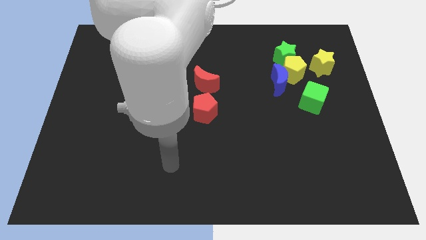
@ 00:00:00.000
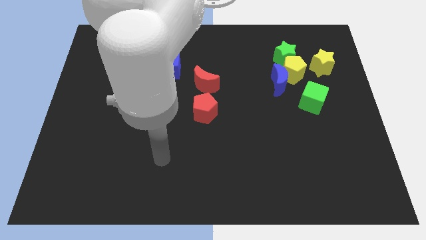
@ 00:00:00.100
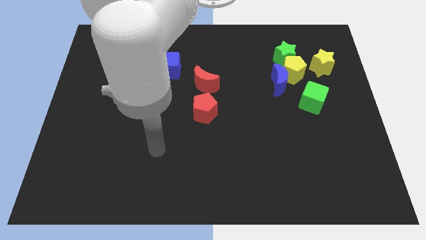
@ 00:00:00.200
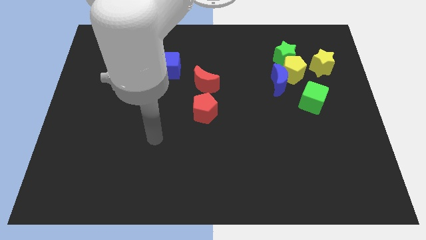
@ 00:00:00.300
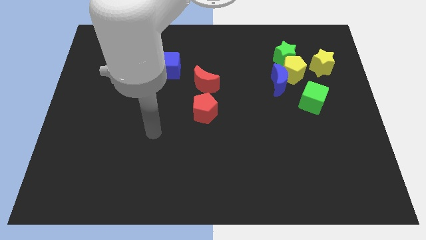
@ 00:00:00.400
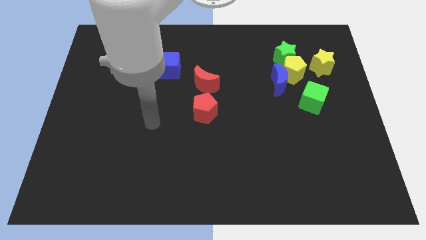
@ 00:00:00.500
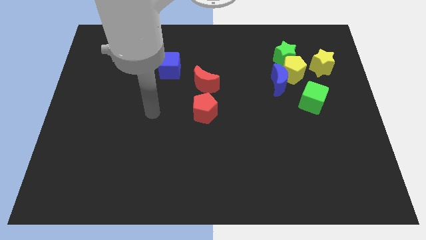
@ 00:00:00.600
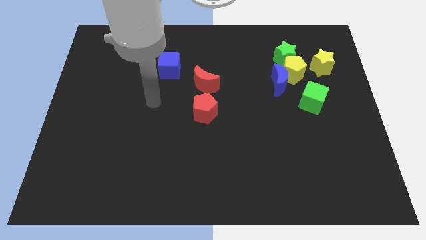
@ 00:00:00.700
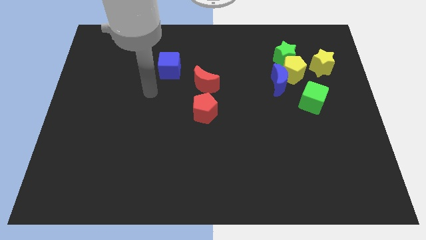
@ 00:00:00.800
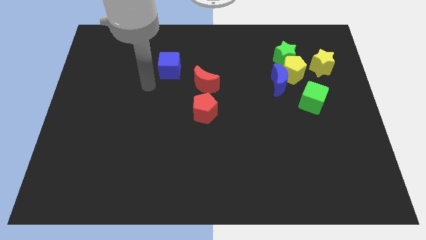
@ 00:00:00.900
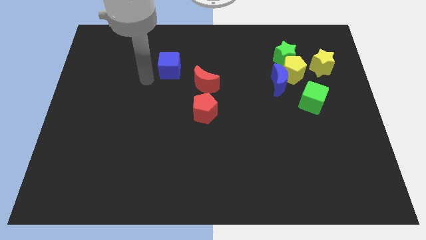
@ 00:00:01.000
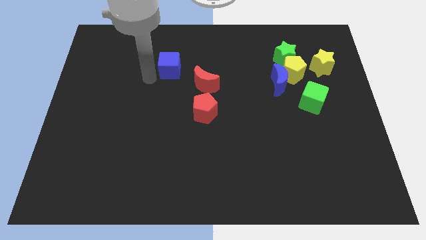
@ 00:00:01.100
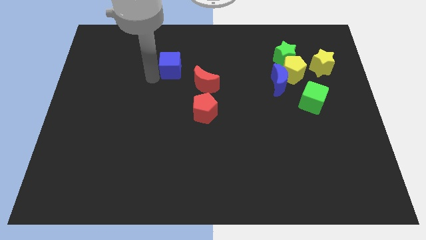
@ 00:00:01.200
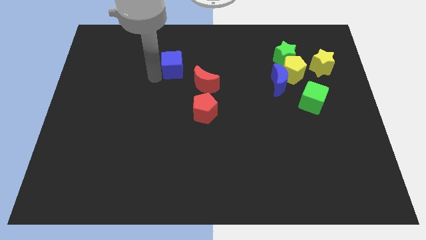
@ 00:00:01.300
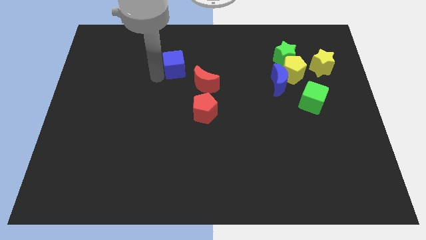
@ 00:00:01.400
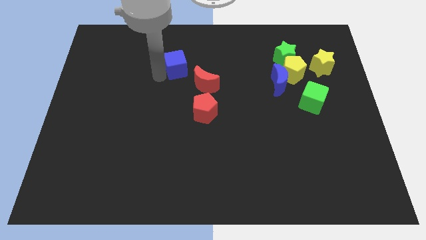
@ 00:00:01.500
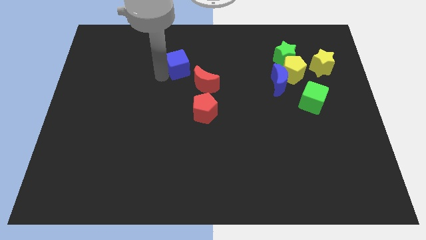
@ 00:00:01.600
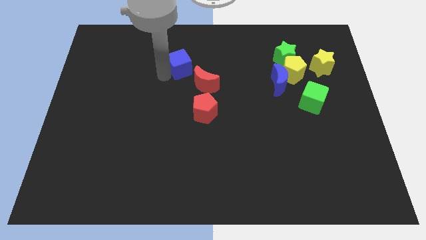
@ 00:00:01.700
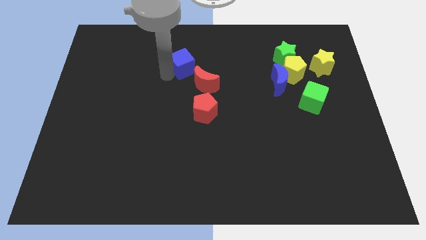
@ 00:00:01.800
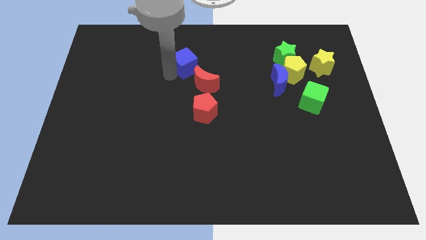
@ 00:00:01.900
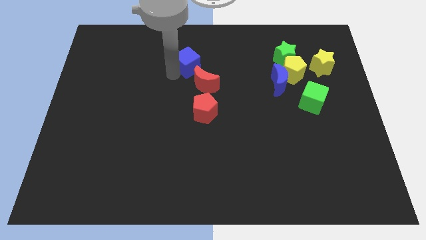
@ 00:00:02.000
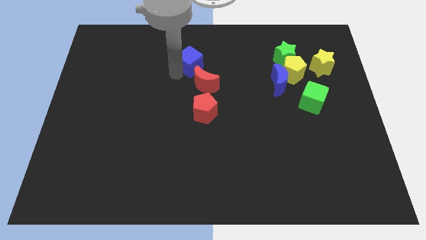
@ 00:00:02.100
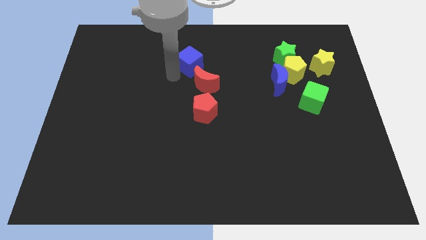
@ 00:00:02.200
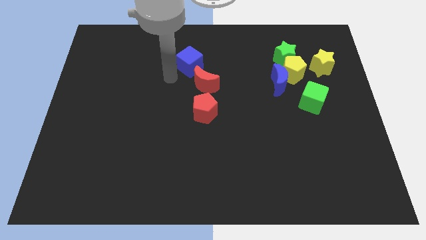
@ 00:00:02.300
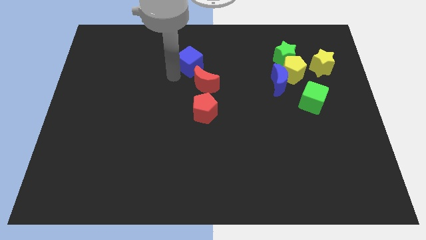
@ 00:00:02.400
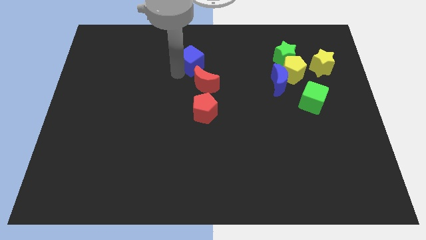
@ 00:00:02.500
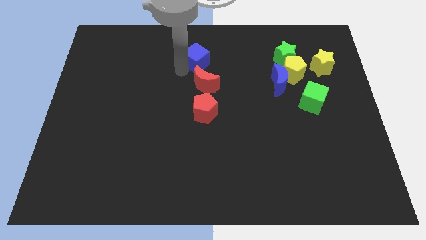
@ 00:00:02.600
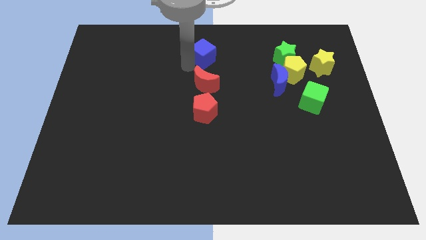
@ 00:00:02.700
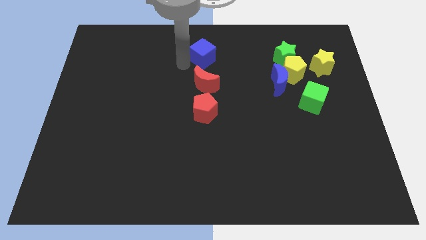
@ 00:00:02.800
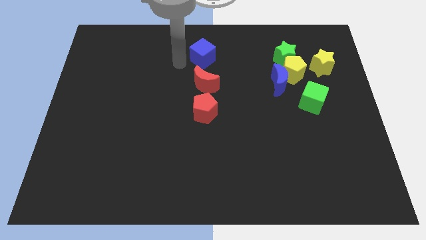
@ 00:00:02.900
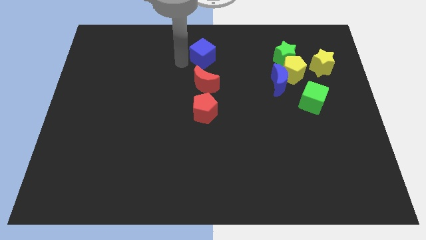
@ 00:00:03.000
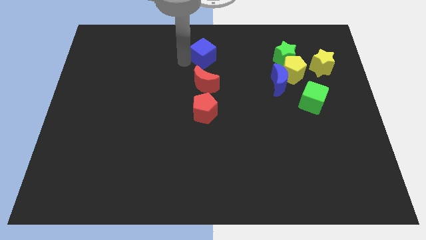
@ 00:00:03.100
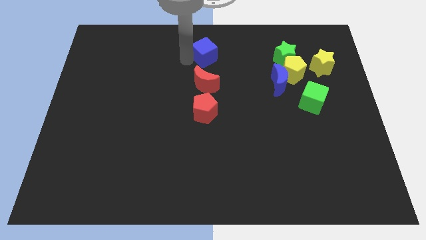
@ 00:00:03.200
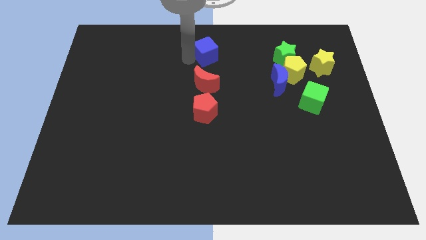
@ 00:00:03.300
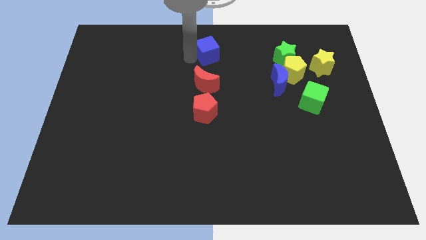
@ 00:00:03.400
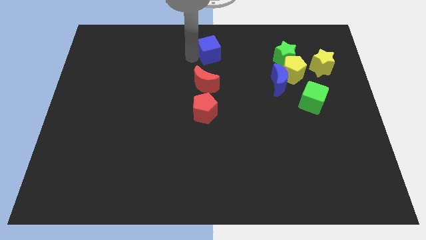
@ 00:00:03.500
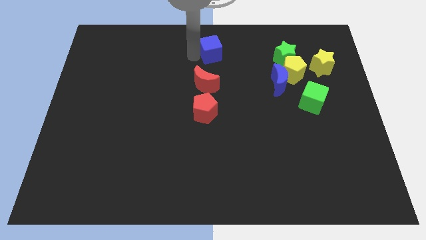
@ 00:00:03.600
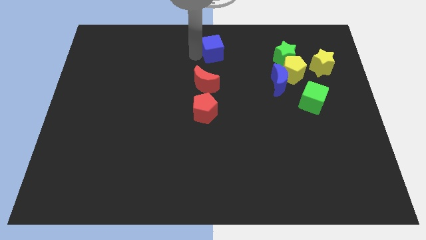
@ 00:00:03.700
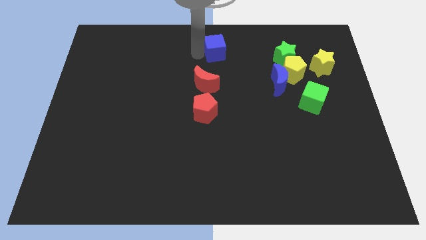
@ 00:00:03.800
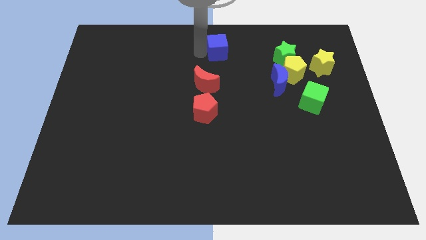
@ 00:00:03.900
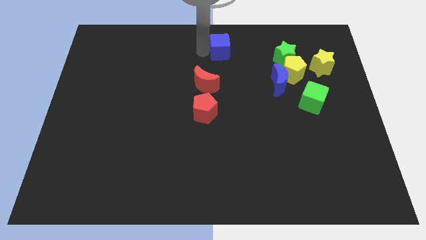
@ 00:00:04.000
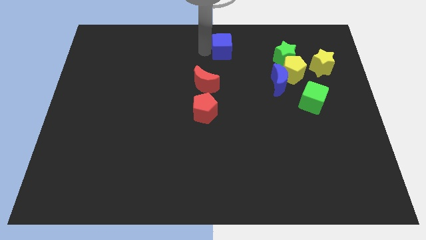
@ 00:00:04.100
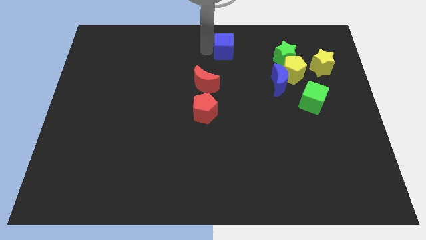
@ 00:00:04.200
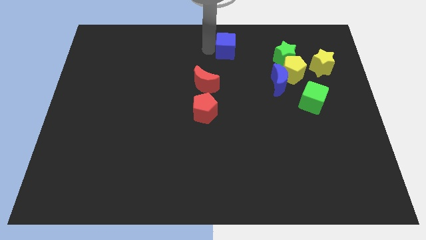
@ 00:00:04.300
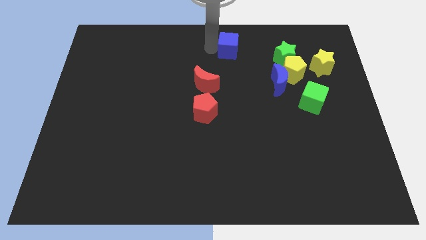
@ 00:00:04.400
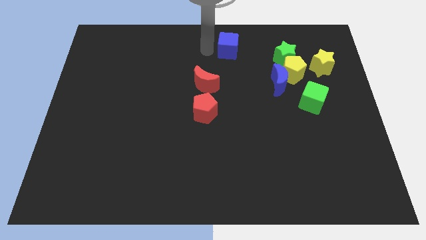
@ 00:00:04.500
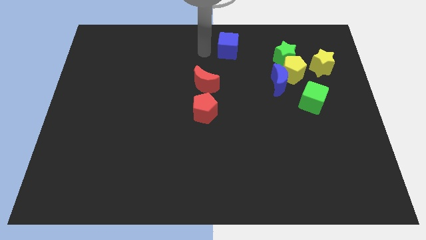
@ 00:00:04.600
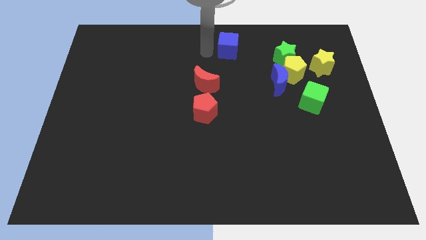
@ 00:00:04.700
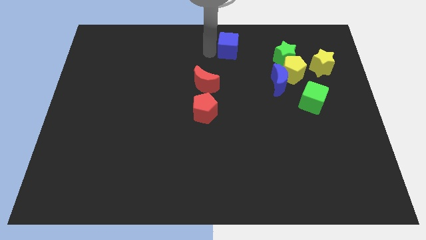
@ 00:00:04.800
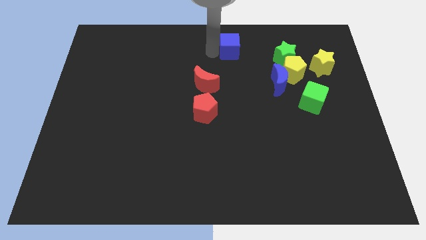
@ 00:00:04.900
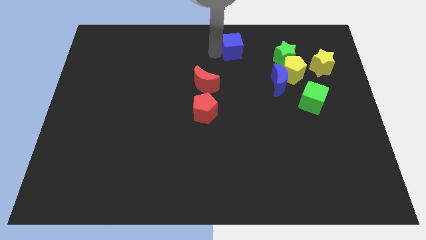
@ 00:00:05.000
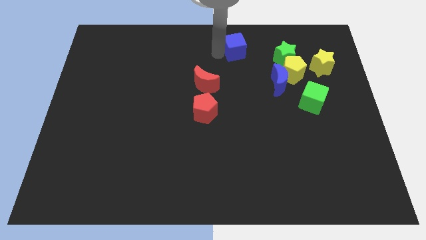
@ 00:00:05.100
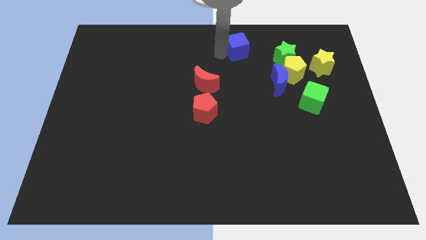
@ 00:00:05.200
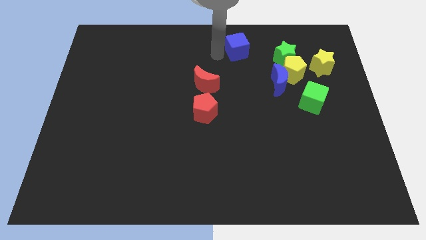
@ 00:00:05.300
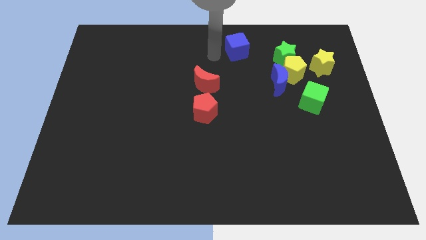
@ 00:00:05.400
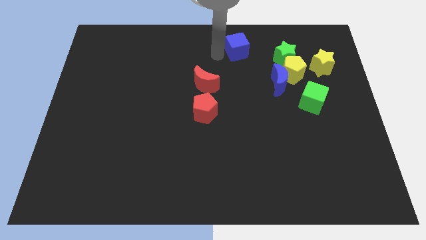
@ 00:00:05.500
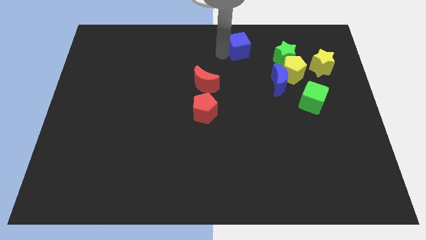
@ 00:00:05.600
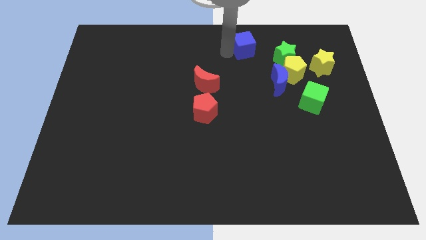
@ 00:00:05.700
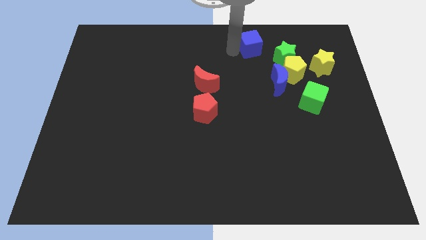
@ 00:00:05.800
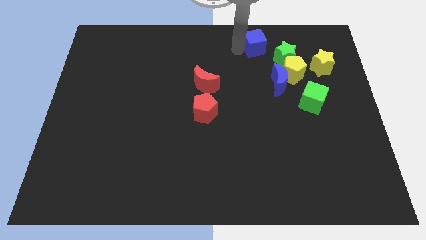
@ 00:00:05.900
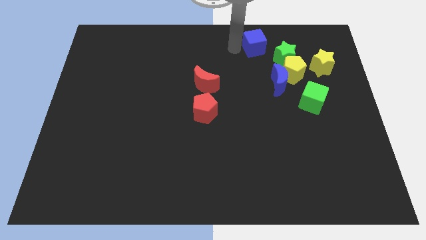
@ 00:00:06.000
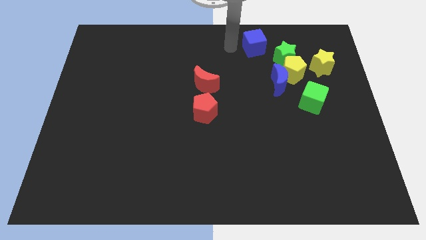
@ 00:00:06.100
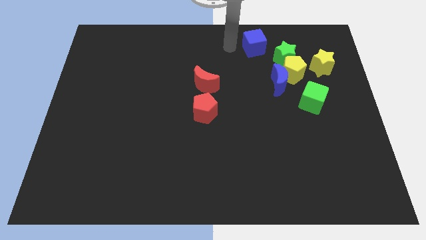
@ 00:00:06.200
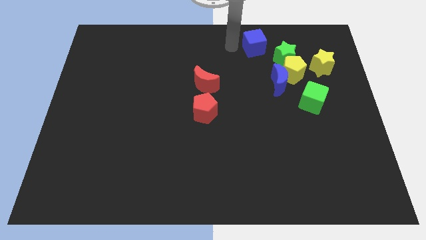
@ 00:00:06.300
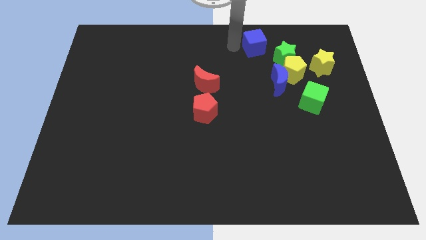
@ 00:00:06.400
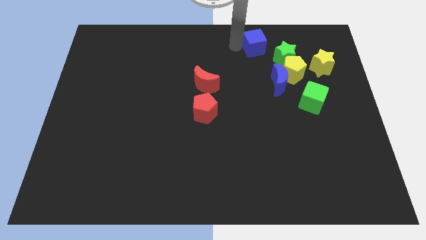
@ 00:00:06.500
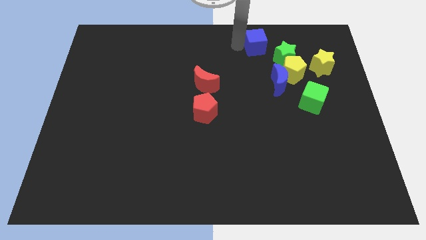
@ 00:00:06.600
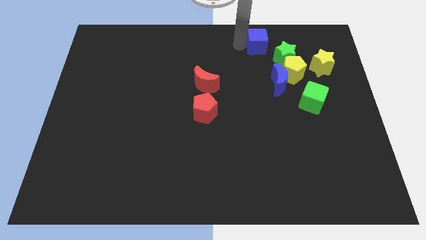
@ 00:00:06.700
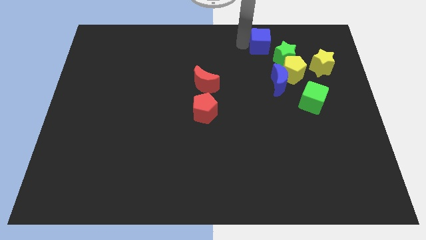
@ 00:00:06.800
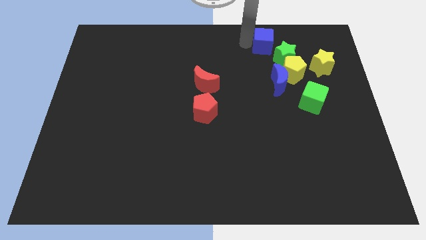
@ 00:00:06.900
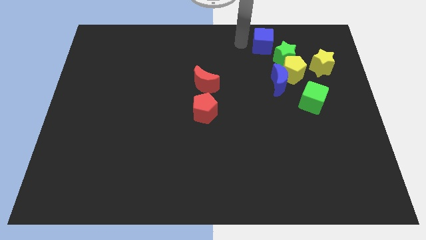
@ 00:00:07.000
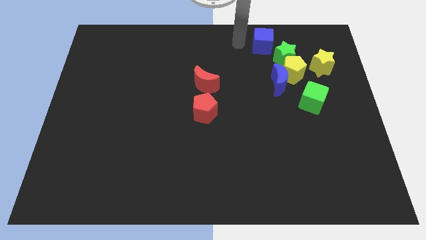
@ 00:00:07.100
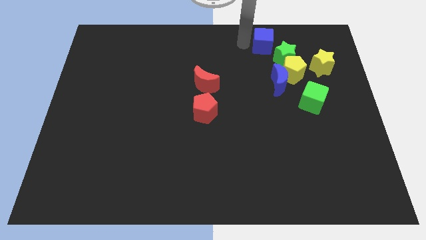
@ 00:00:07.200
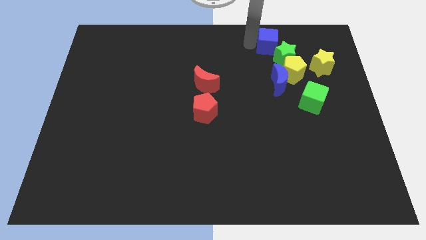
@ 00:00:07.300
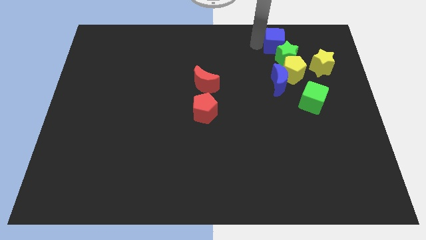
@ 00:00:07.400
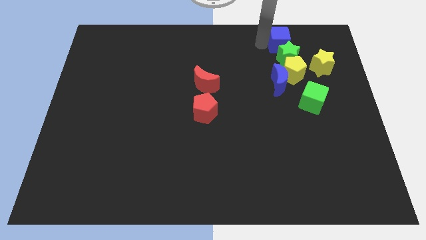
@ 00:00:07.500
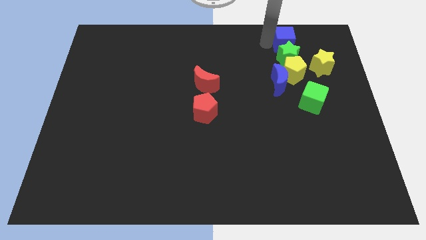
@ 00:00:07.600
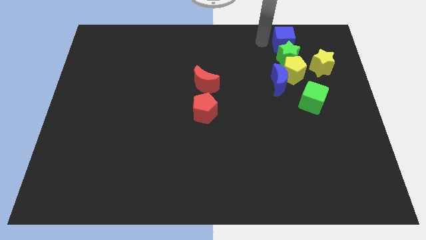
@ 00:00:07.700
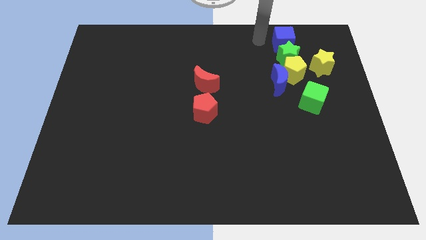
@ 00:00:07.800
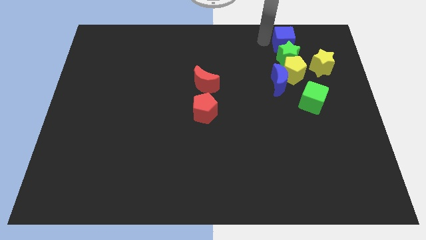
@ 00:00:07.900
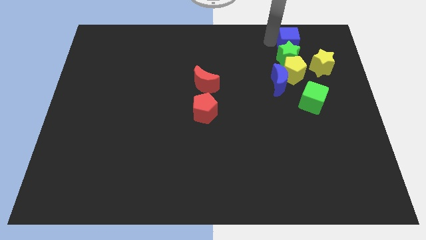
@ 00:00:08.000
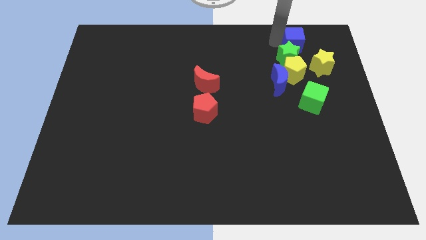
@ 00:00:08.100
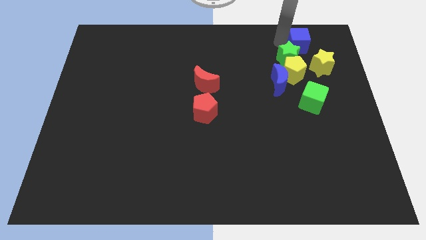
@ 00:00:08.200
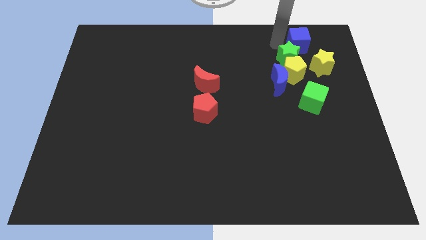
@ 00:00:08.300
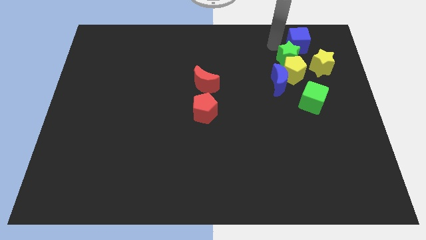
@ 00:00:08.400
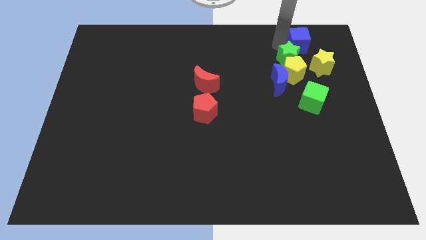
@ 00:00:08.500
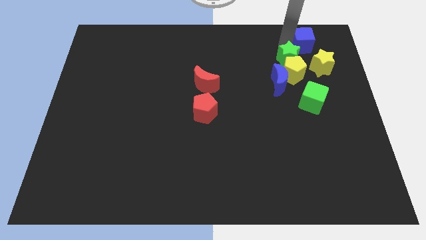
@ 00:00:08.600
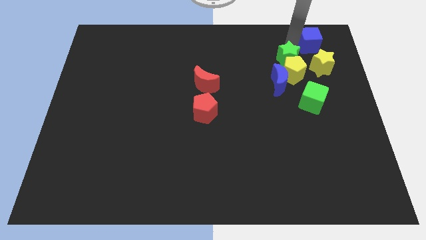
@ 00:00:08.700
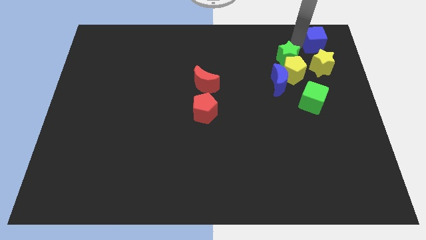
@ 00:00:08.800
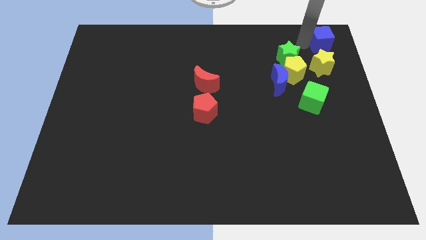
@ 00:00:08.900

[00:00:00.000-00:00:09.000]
move the blue cube to the upper right corner
